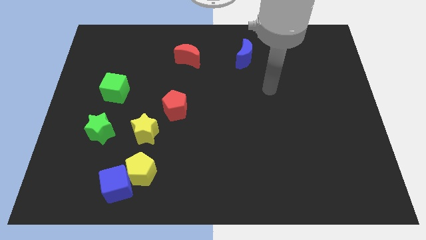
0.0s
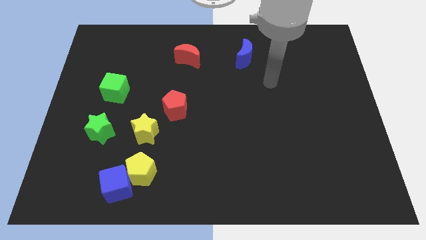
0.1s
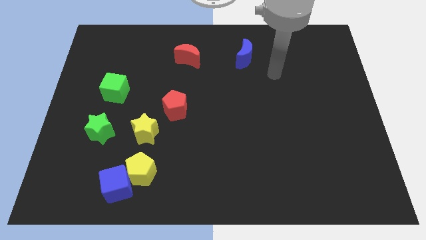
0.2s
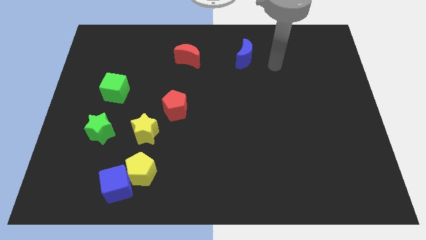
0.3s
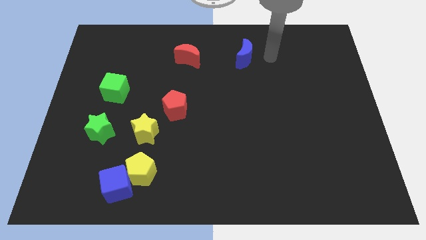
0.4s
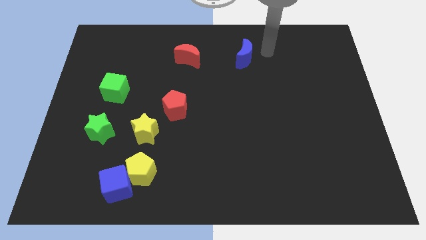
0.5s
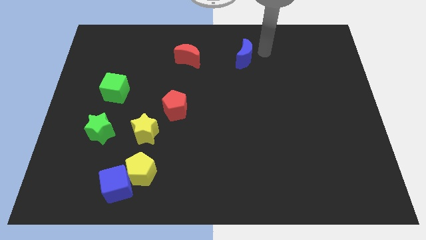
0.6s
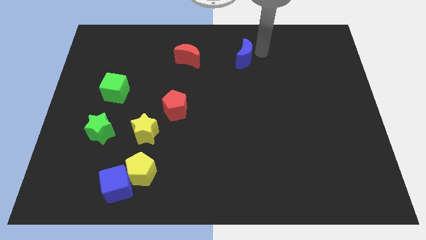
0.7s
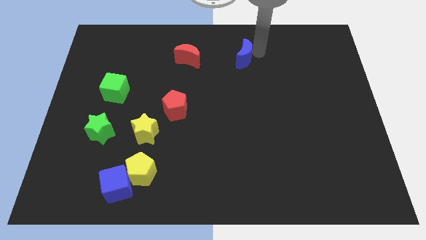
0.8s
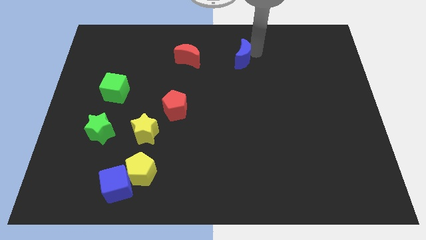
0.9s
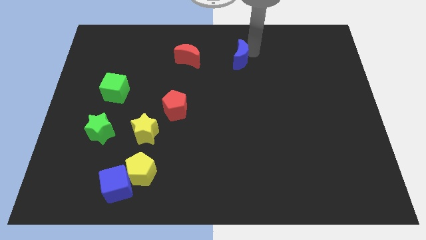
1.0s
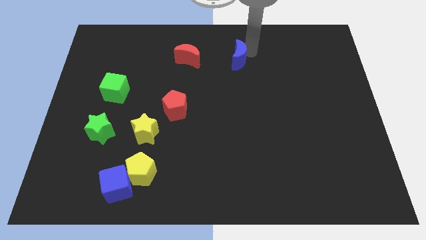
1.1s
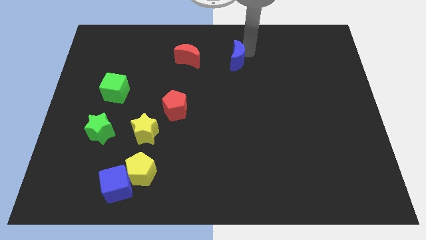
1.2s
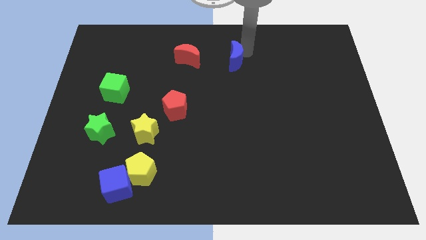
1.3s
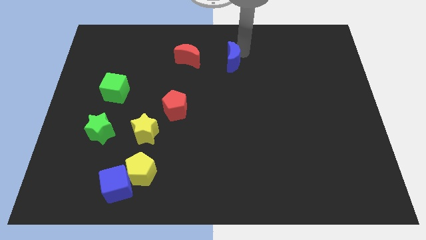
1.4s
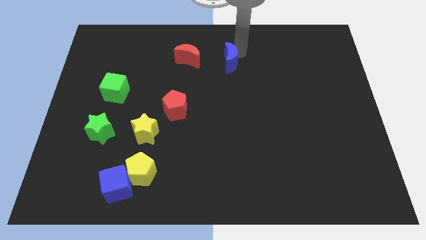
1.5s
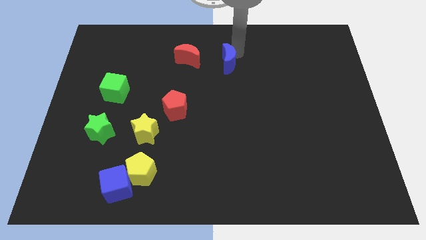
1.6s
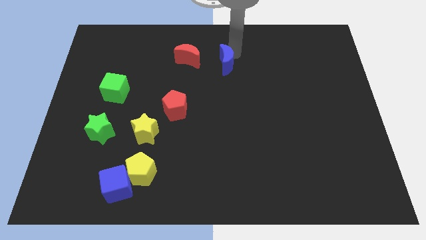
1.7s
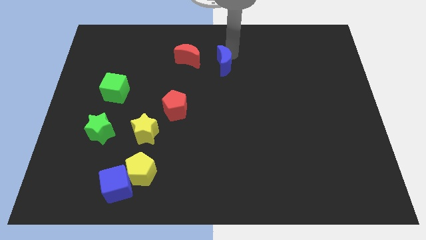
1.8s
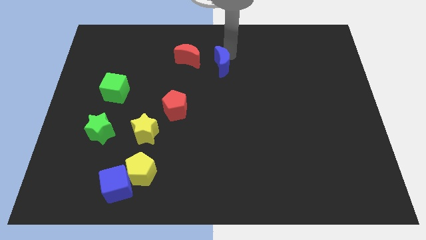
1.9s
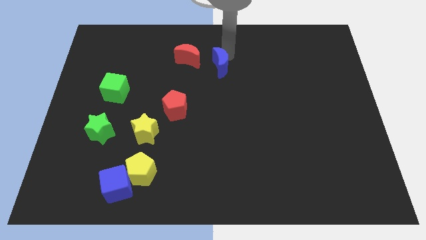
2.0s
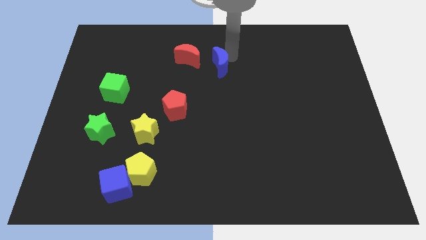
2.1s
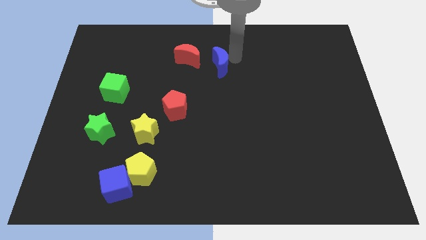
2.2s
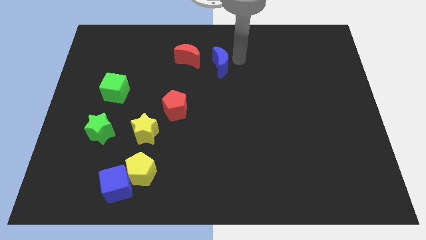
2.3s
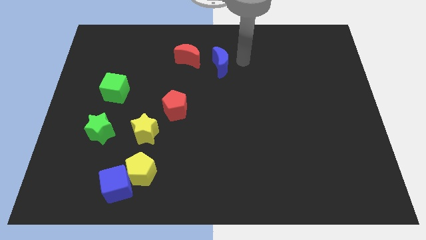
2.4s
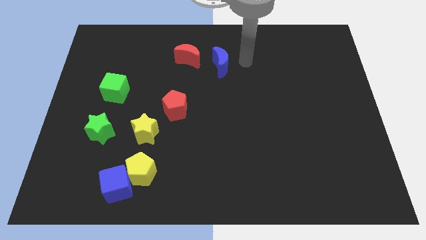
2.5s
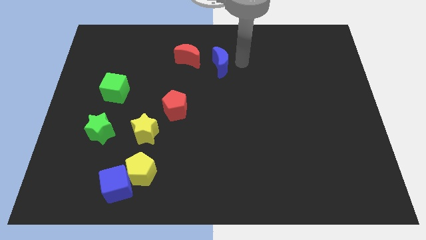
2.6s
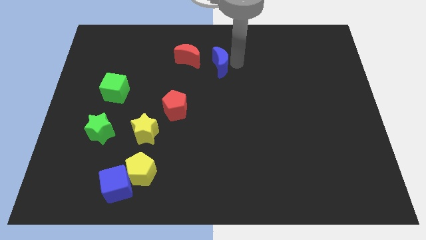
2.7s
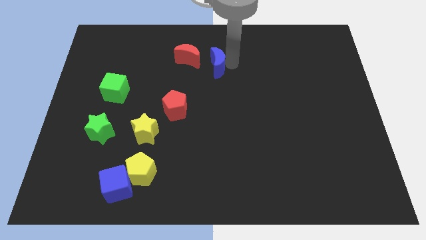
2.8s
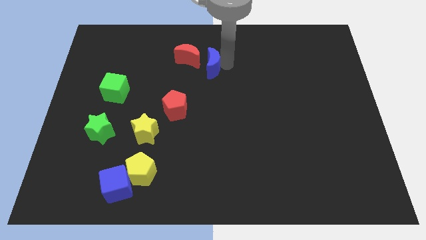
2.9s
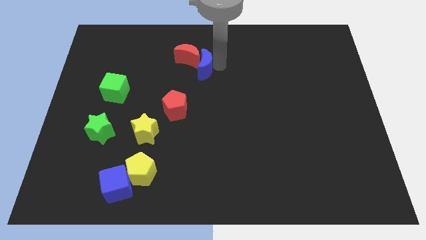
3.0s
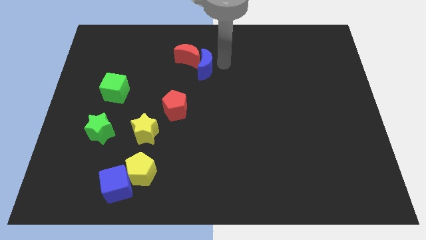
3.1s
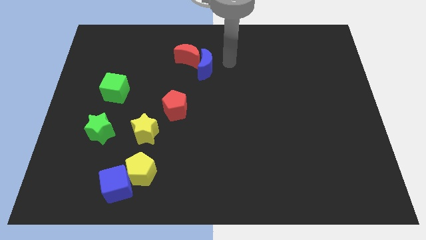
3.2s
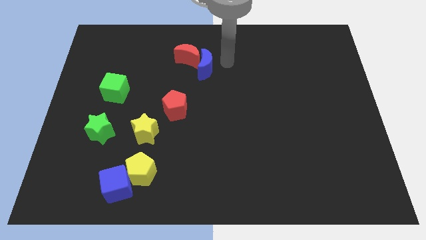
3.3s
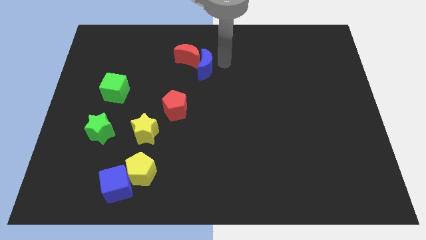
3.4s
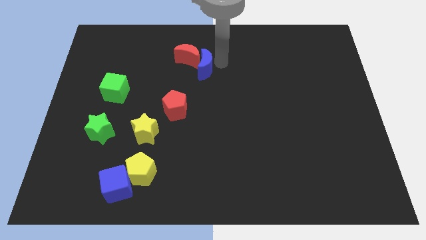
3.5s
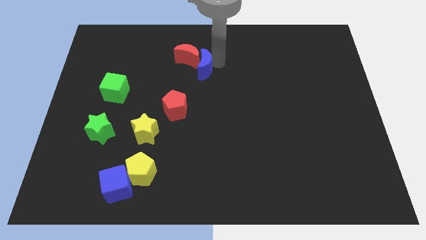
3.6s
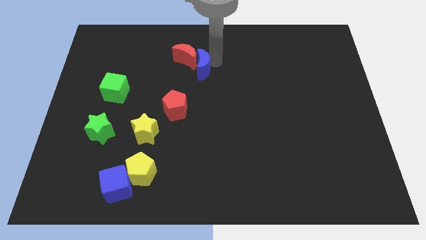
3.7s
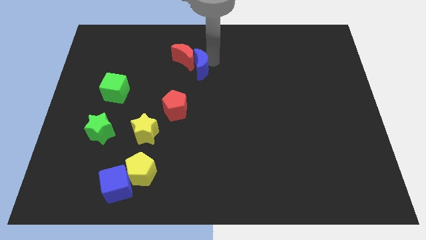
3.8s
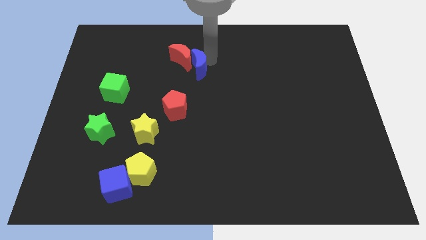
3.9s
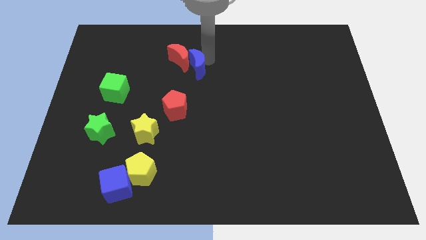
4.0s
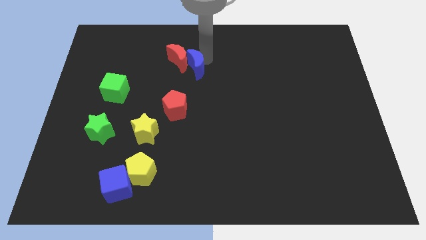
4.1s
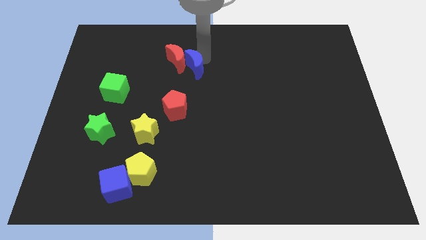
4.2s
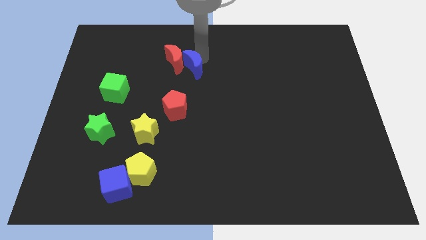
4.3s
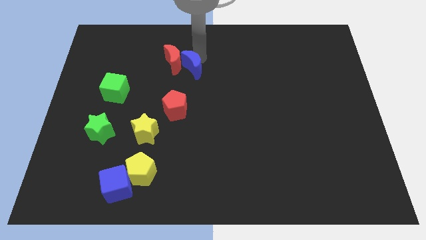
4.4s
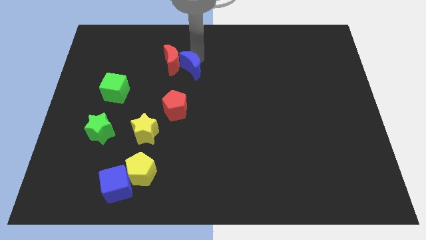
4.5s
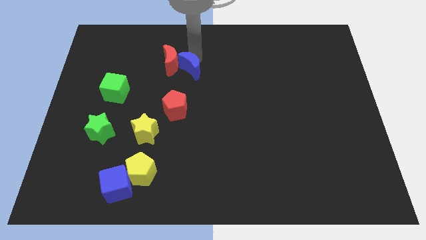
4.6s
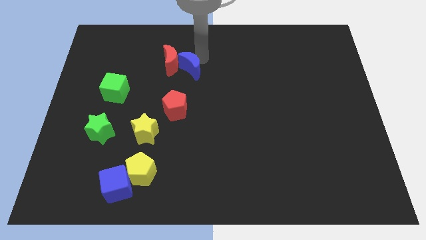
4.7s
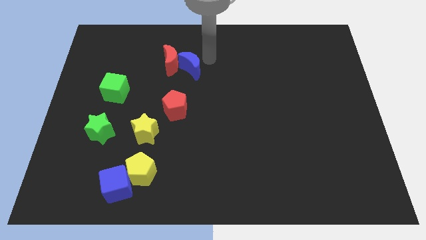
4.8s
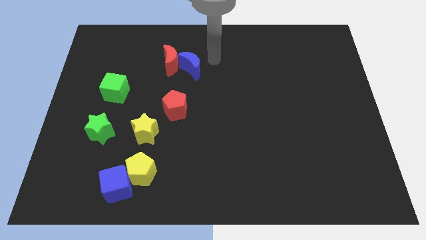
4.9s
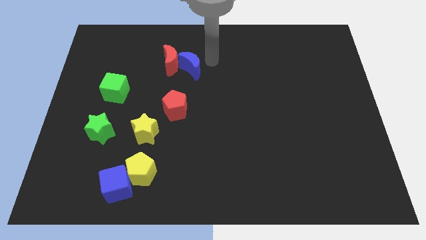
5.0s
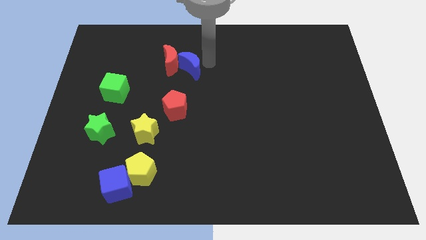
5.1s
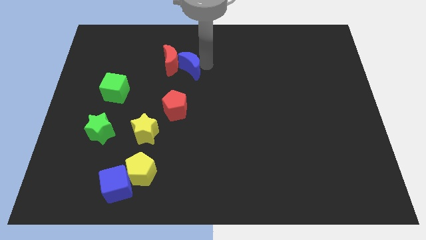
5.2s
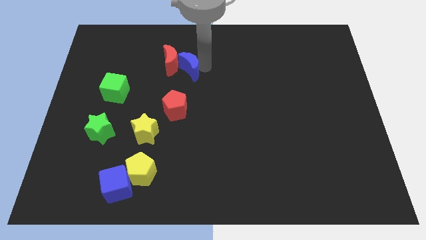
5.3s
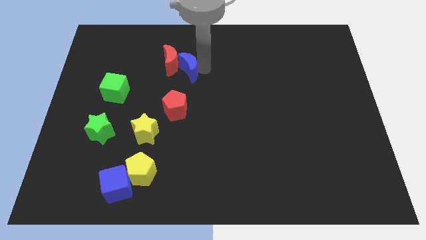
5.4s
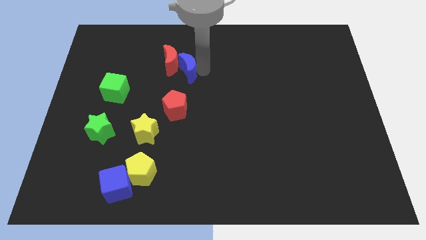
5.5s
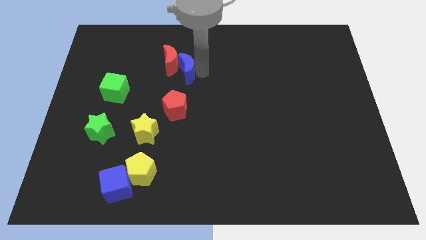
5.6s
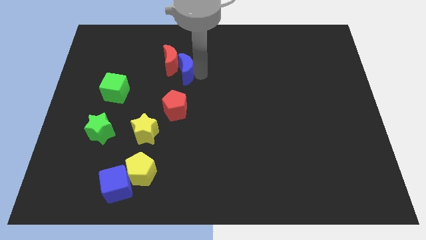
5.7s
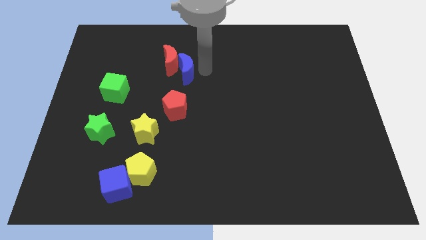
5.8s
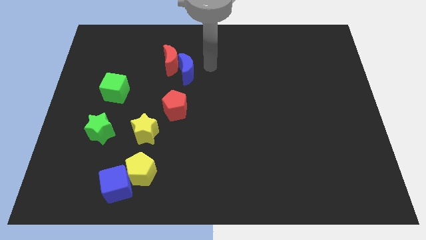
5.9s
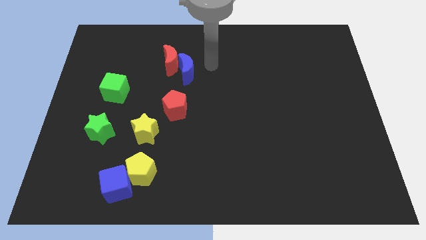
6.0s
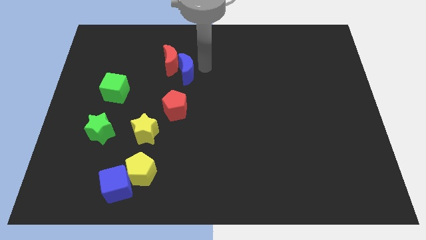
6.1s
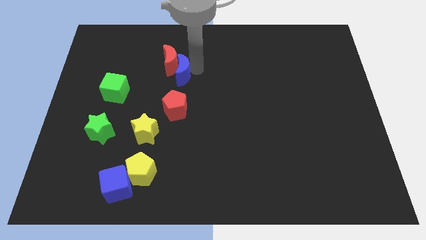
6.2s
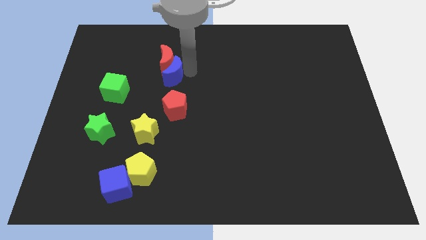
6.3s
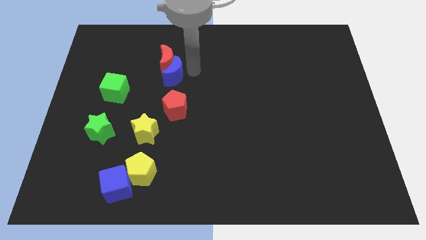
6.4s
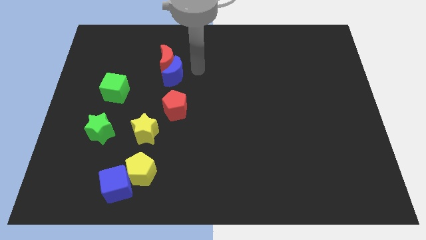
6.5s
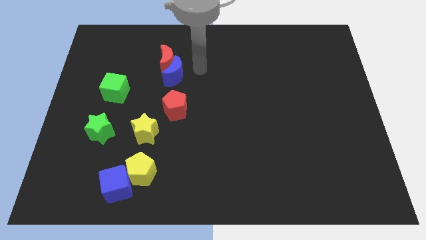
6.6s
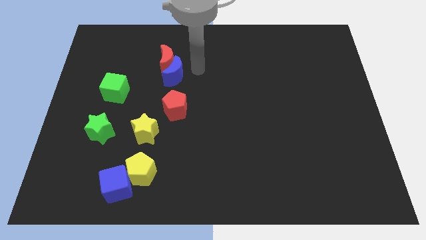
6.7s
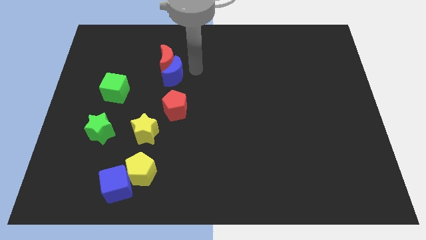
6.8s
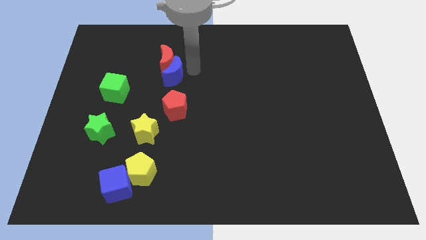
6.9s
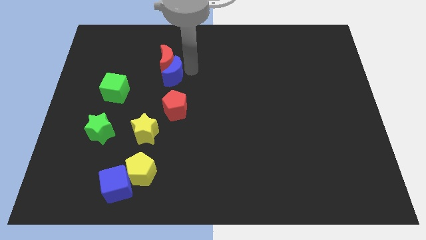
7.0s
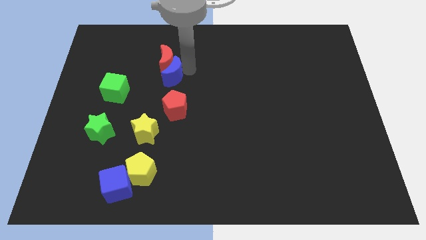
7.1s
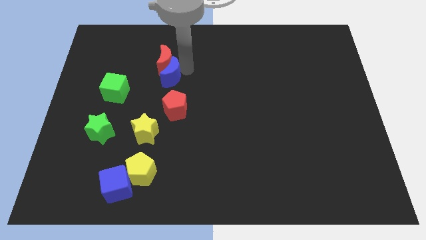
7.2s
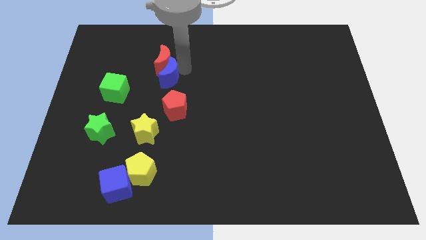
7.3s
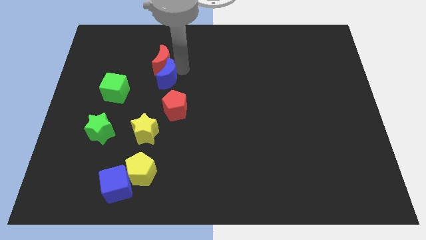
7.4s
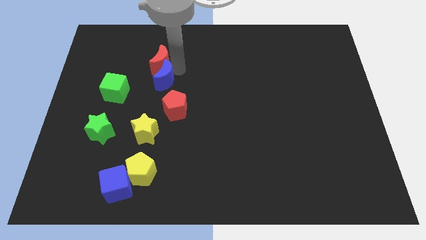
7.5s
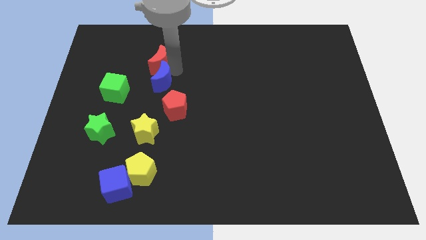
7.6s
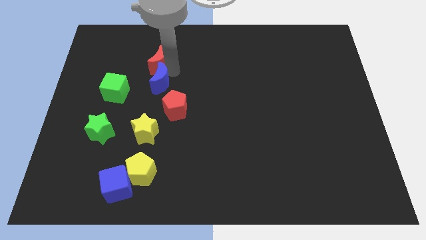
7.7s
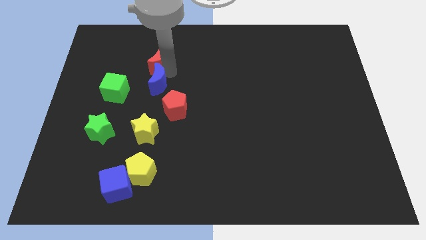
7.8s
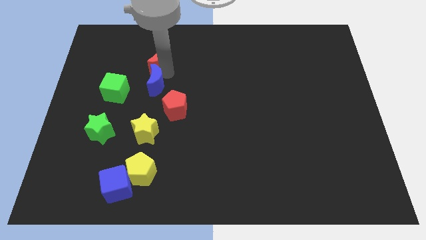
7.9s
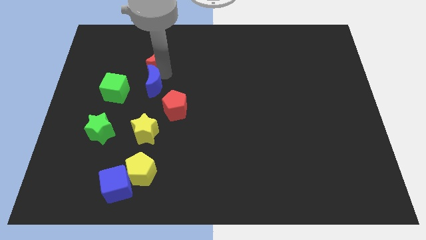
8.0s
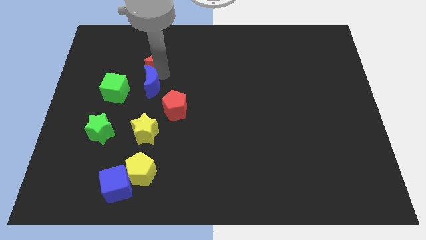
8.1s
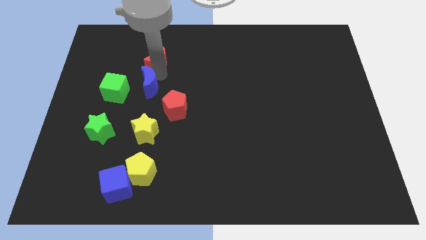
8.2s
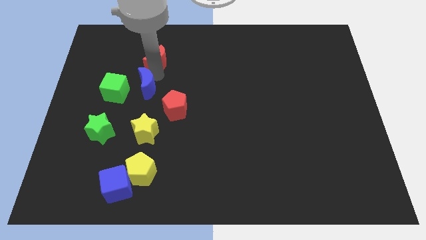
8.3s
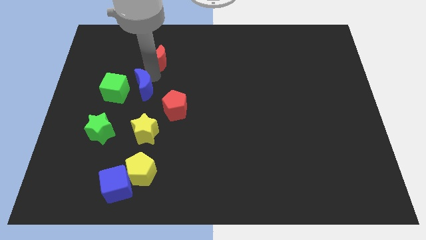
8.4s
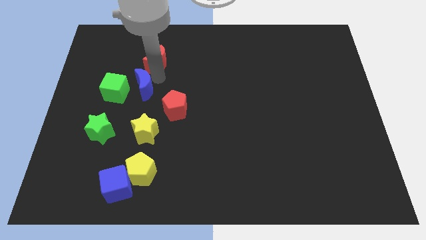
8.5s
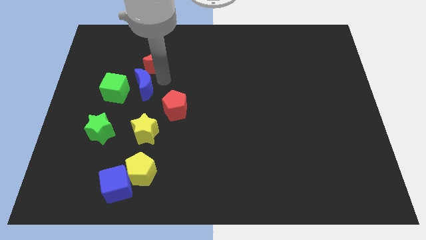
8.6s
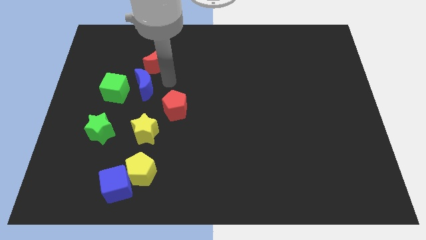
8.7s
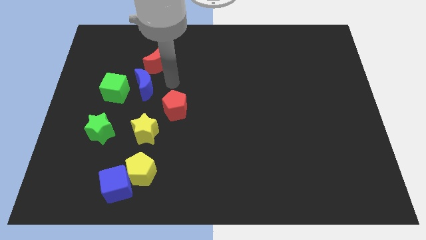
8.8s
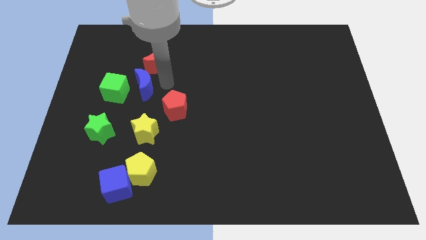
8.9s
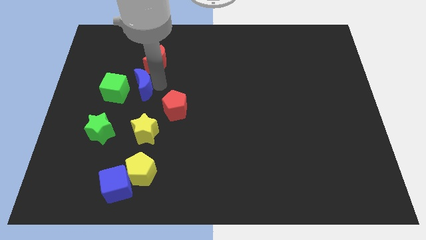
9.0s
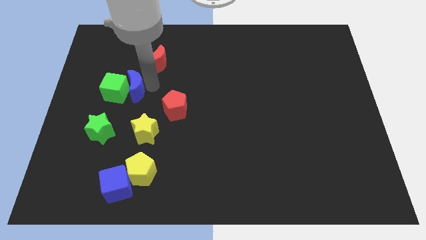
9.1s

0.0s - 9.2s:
put the blue moon close to the green cube
